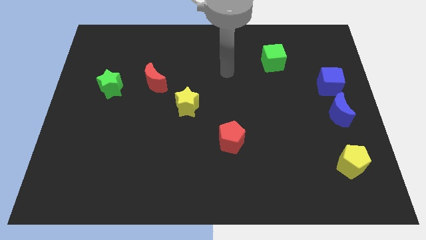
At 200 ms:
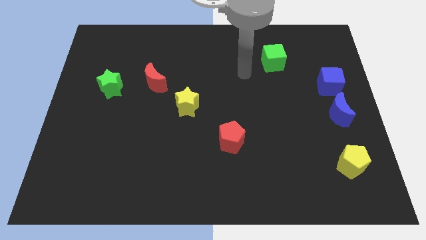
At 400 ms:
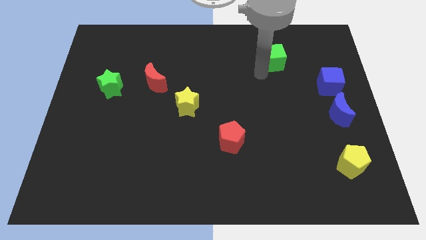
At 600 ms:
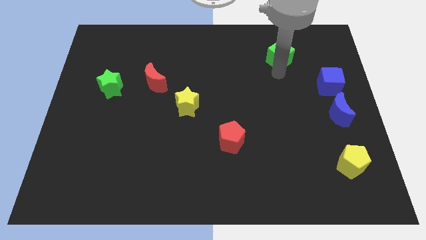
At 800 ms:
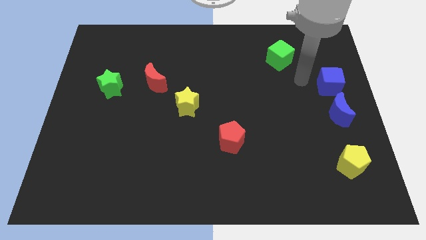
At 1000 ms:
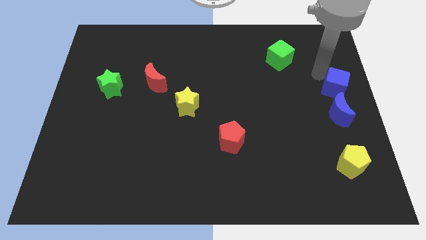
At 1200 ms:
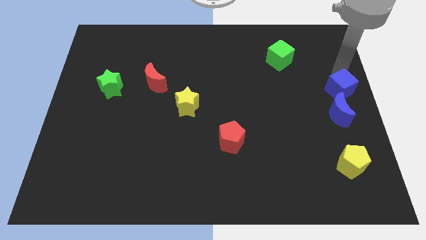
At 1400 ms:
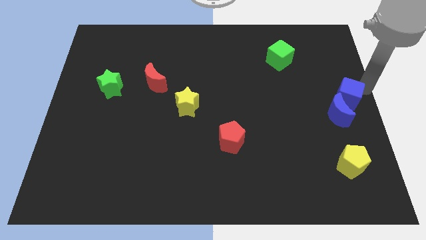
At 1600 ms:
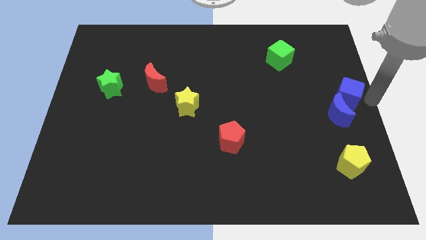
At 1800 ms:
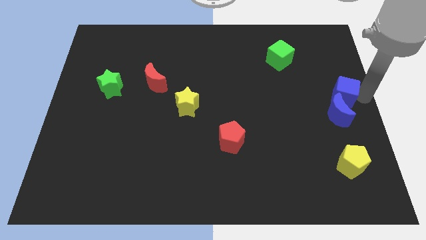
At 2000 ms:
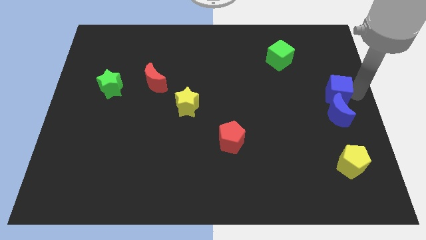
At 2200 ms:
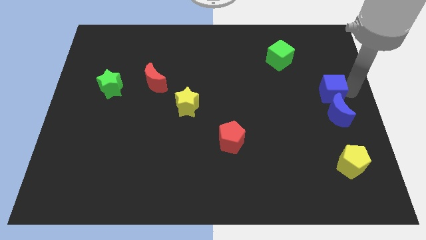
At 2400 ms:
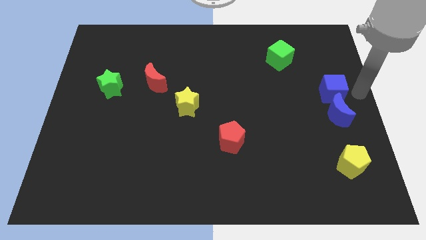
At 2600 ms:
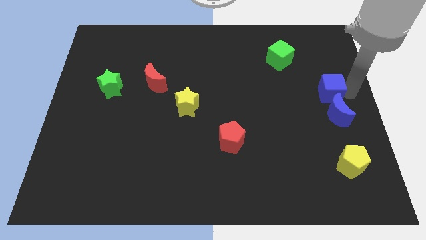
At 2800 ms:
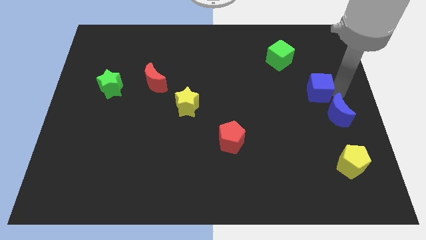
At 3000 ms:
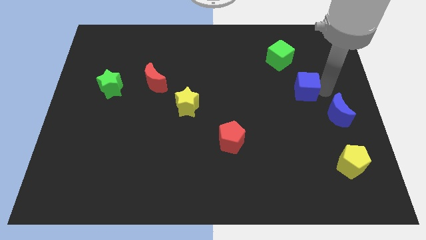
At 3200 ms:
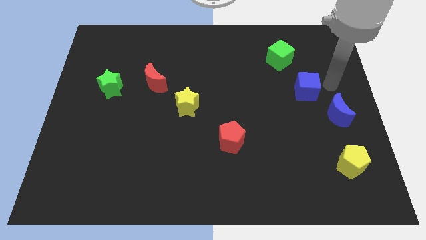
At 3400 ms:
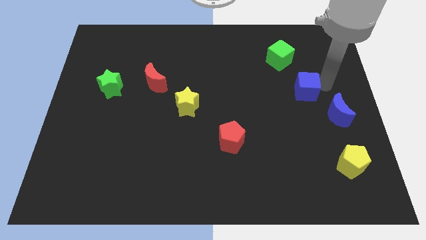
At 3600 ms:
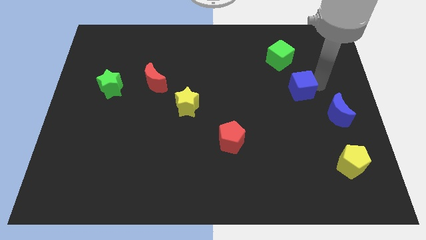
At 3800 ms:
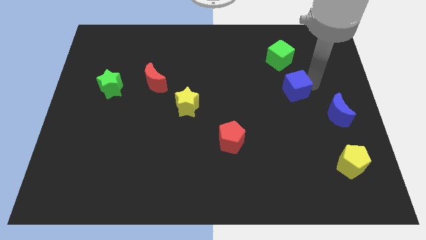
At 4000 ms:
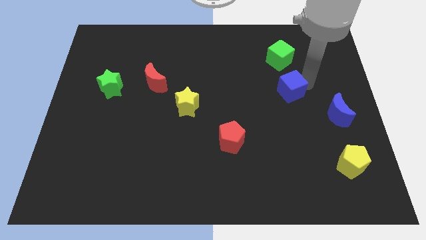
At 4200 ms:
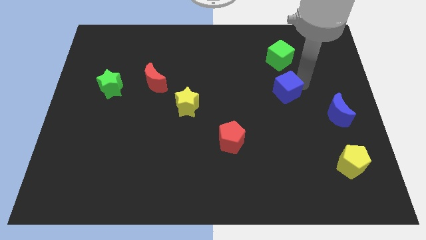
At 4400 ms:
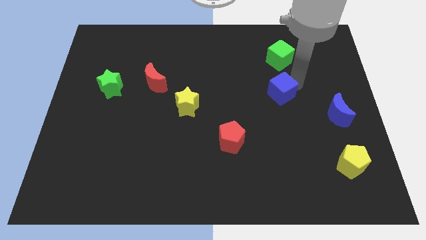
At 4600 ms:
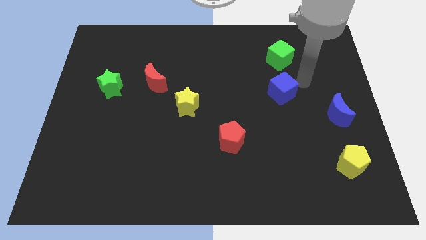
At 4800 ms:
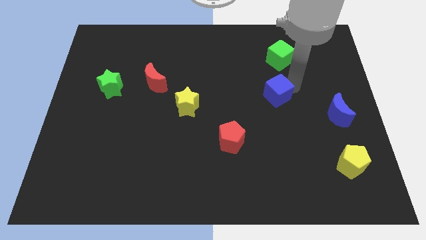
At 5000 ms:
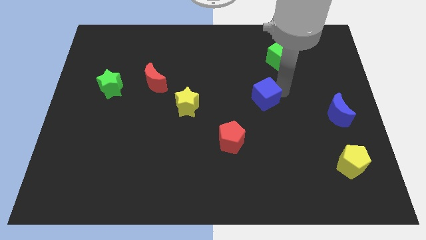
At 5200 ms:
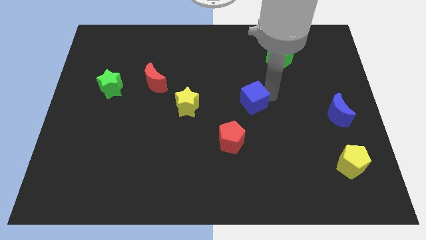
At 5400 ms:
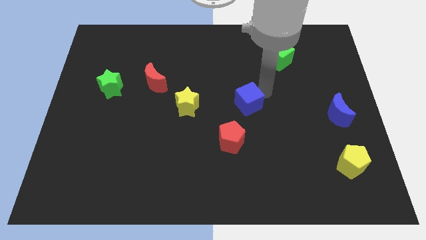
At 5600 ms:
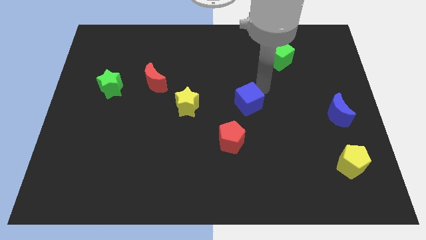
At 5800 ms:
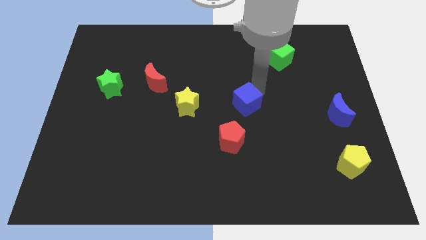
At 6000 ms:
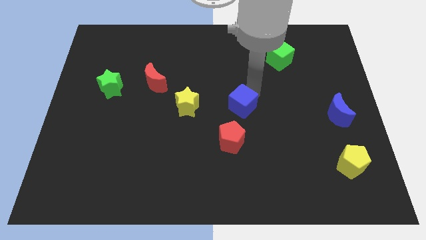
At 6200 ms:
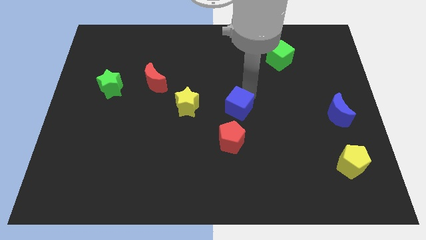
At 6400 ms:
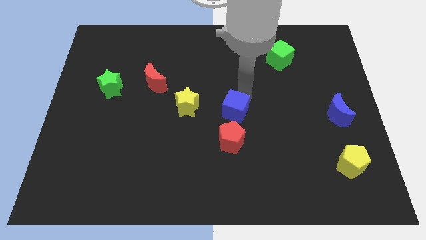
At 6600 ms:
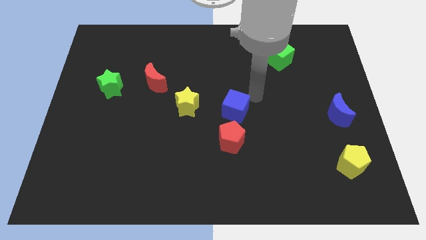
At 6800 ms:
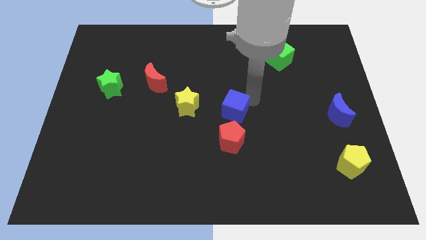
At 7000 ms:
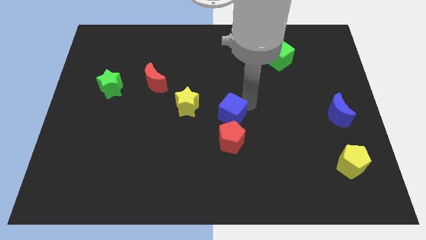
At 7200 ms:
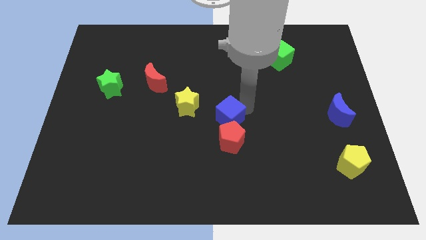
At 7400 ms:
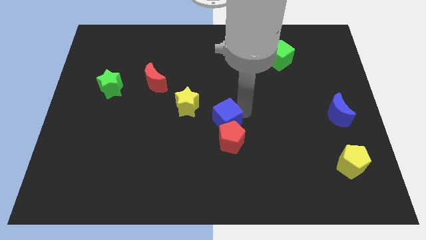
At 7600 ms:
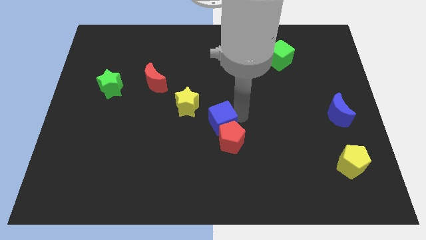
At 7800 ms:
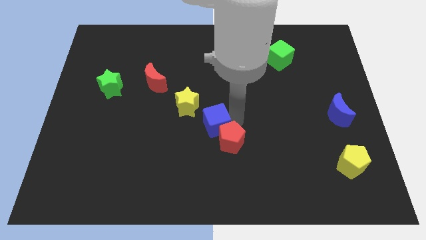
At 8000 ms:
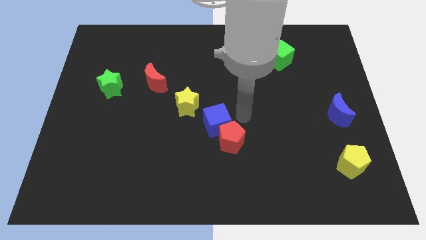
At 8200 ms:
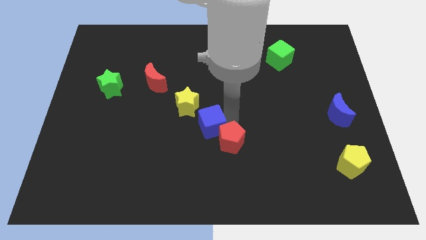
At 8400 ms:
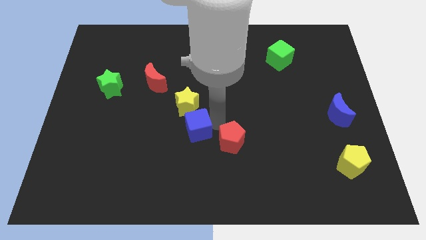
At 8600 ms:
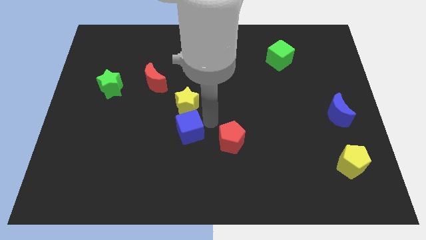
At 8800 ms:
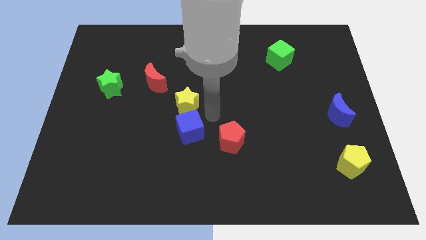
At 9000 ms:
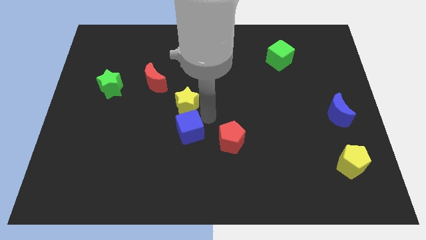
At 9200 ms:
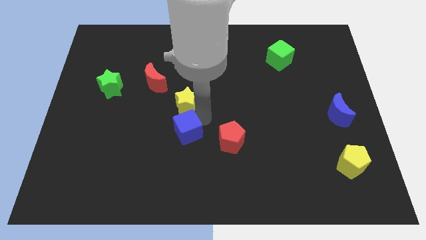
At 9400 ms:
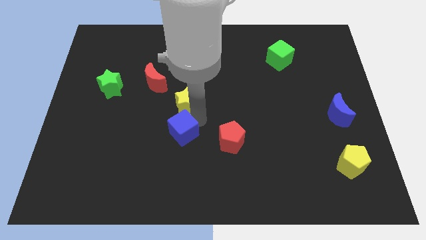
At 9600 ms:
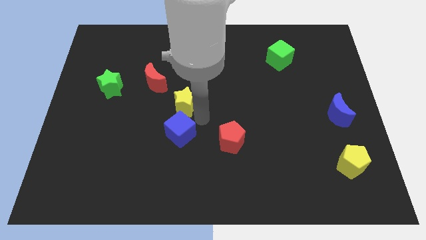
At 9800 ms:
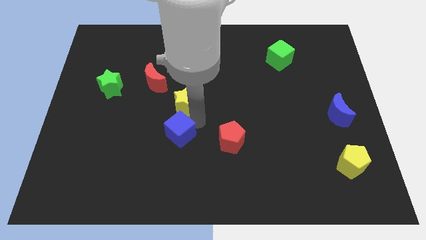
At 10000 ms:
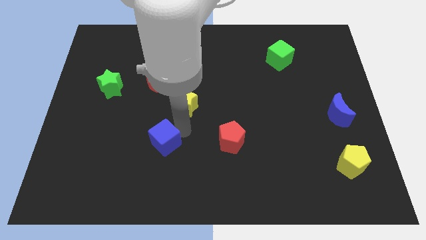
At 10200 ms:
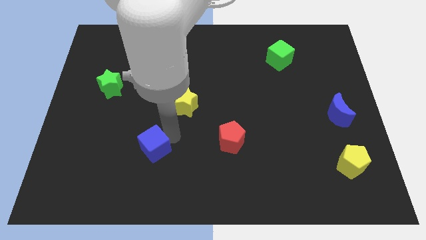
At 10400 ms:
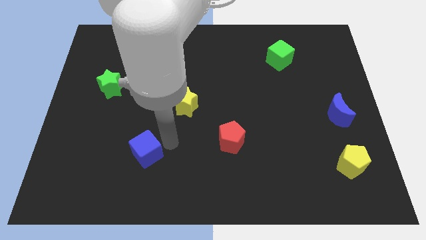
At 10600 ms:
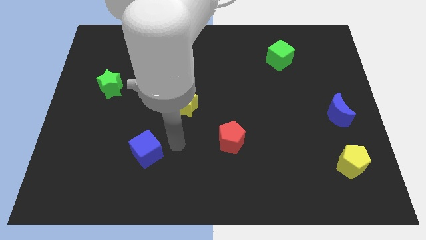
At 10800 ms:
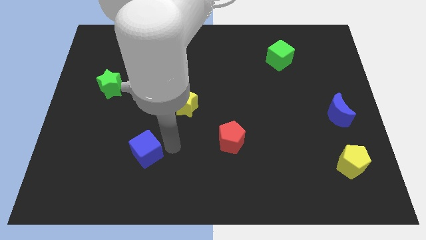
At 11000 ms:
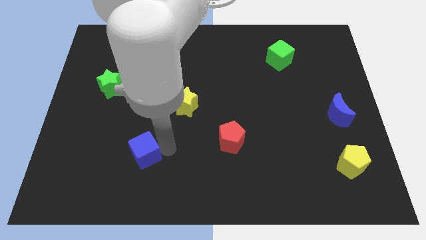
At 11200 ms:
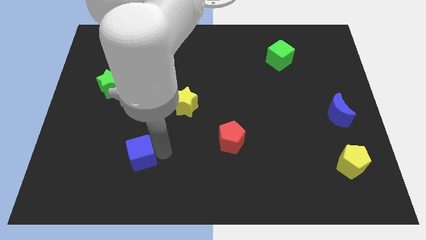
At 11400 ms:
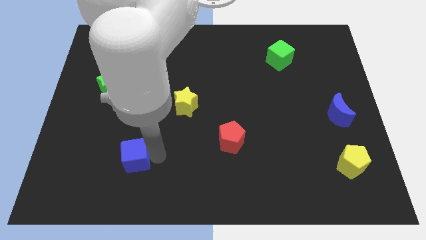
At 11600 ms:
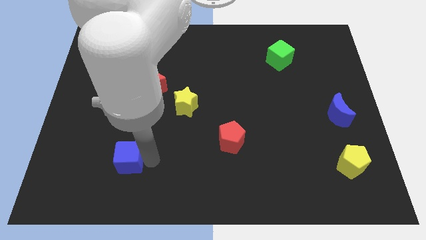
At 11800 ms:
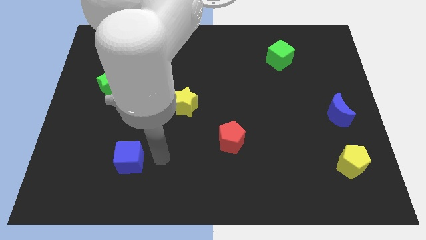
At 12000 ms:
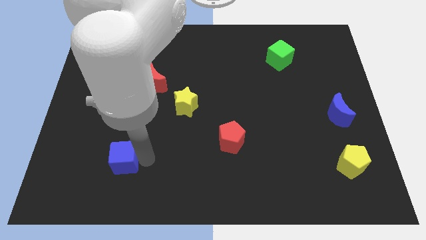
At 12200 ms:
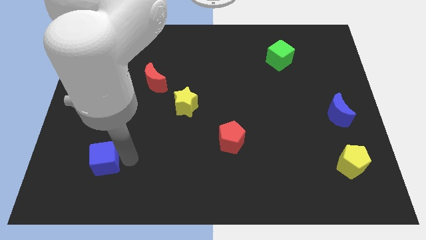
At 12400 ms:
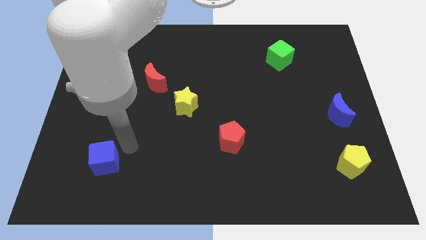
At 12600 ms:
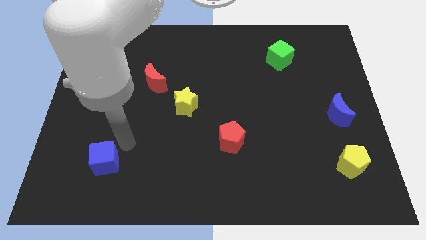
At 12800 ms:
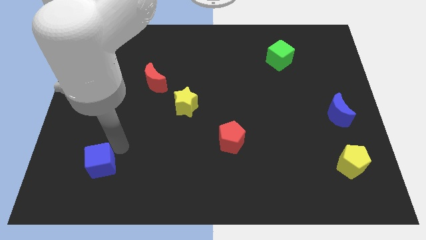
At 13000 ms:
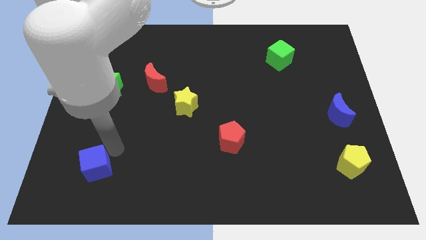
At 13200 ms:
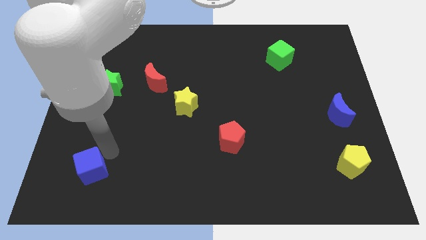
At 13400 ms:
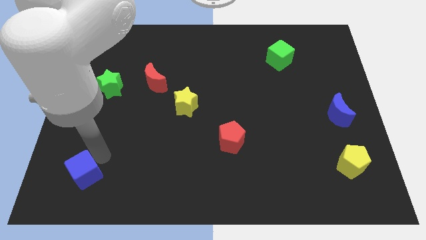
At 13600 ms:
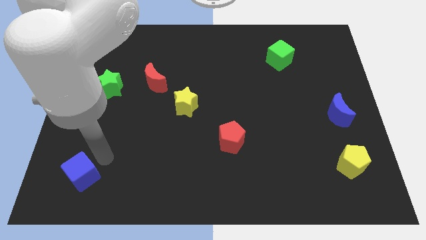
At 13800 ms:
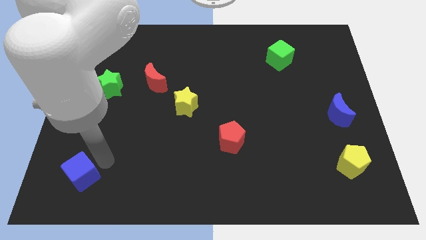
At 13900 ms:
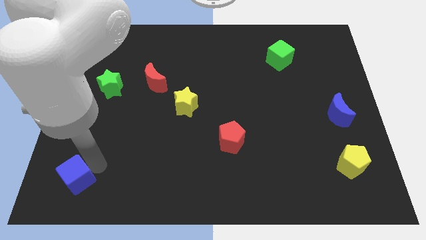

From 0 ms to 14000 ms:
push the blue cube to the bottom left of the board
